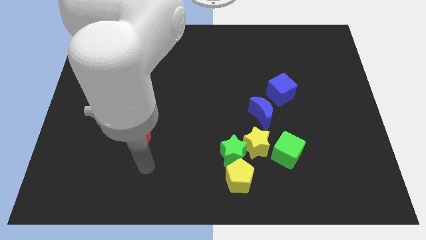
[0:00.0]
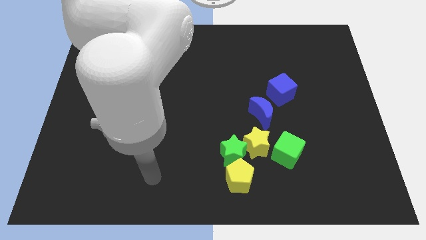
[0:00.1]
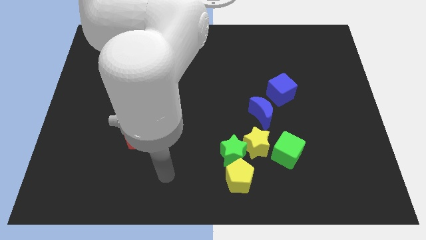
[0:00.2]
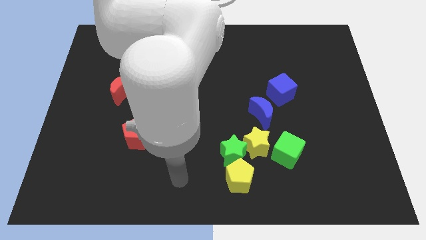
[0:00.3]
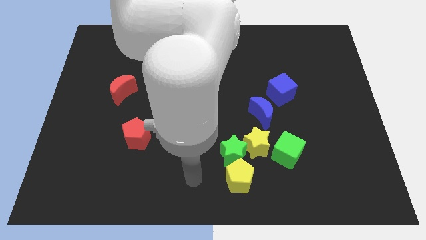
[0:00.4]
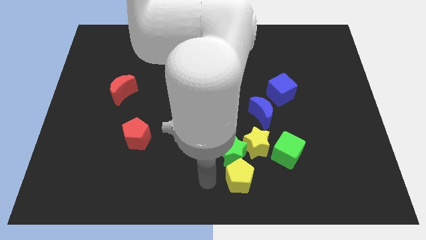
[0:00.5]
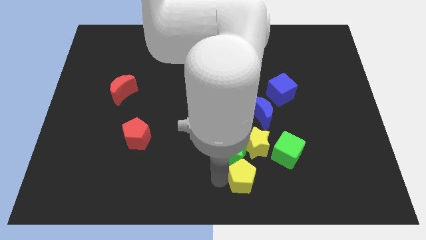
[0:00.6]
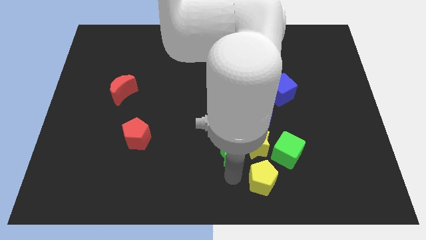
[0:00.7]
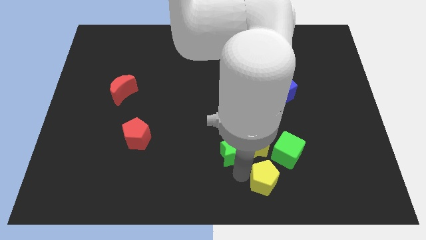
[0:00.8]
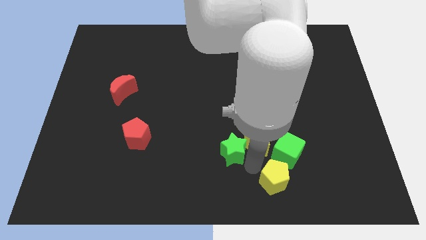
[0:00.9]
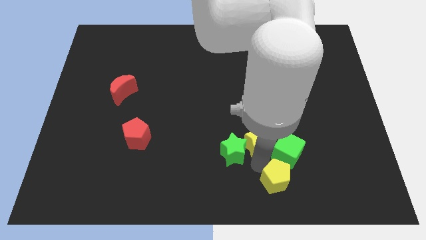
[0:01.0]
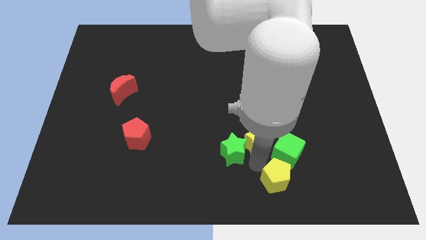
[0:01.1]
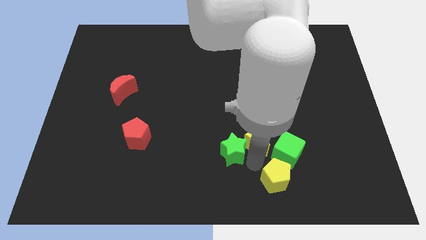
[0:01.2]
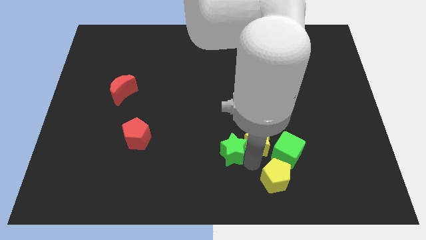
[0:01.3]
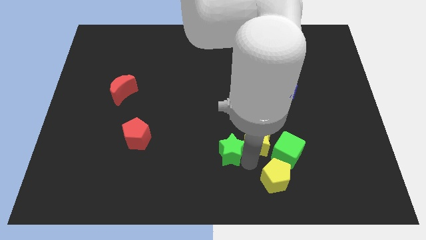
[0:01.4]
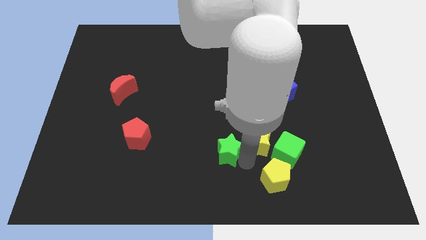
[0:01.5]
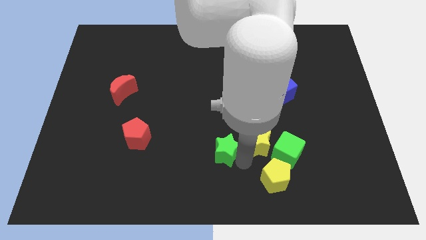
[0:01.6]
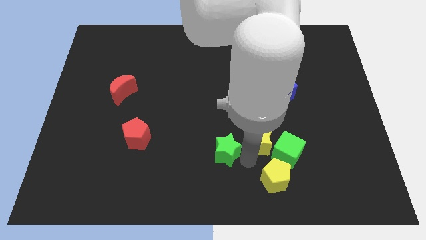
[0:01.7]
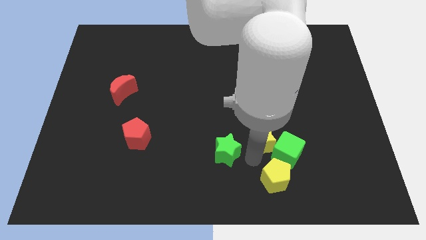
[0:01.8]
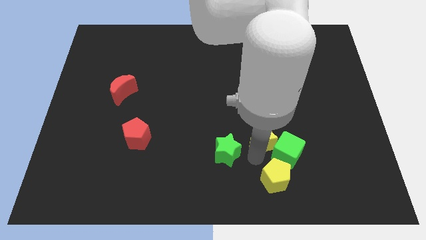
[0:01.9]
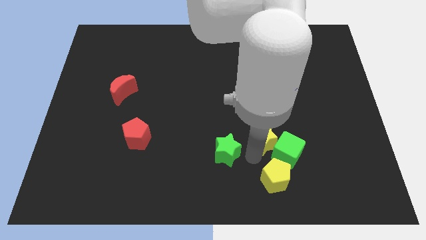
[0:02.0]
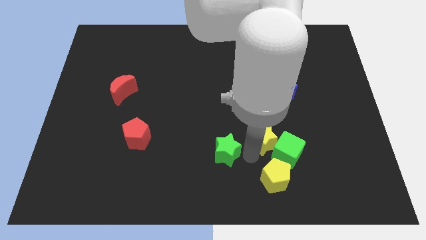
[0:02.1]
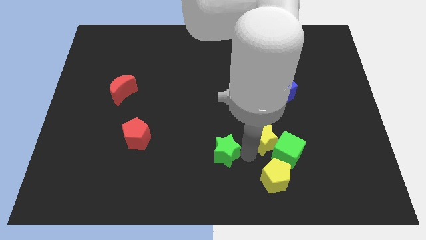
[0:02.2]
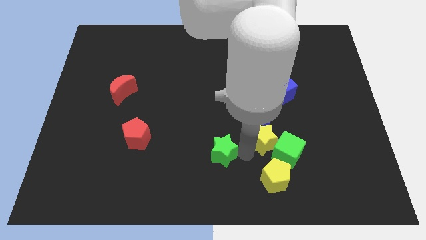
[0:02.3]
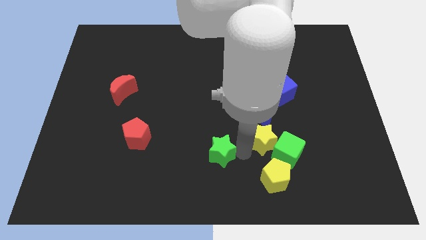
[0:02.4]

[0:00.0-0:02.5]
pull the green star apart from the yellow star and yellow pentagon

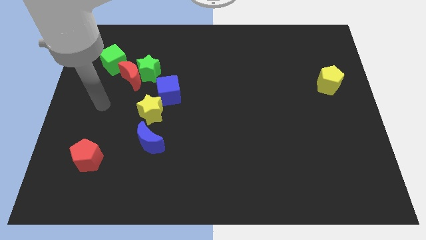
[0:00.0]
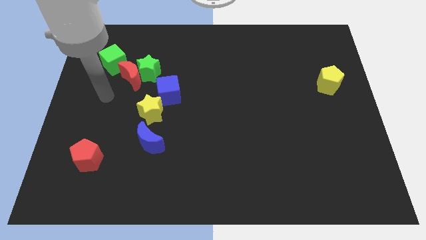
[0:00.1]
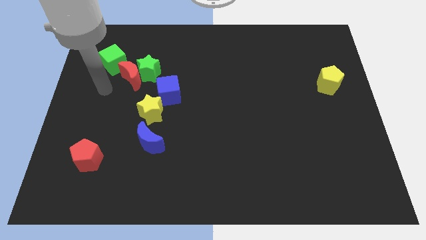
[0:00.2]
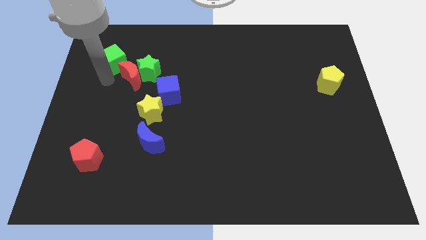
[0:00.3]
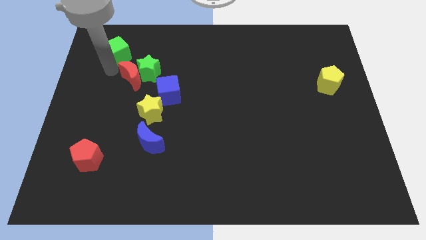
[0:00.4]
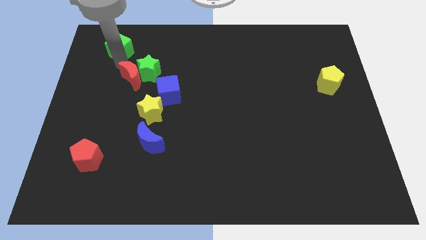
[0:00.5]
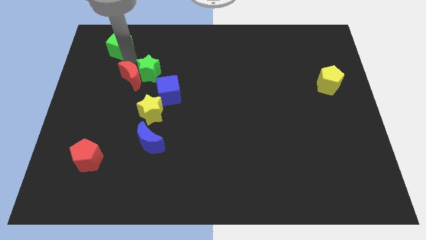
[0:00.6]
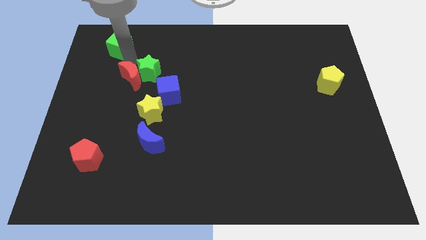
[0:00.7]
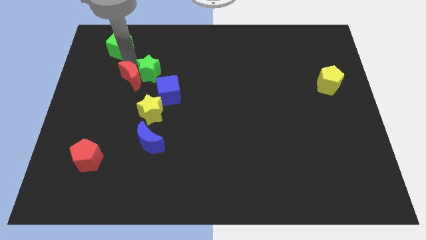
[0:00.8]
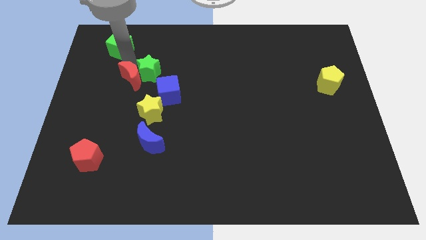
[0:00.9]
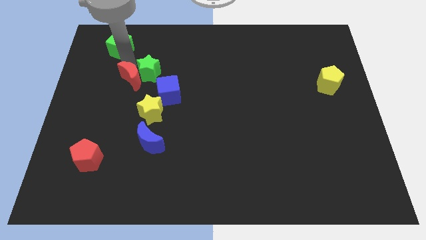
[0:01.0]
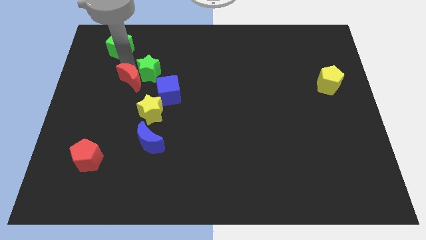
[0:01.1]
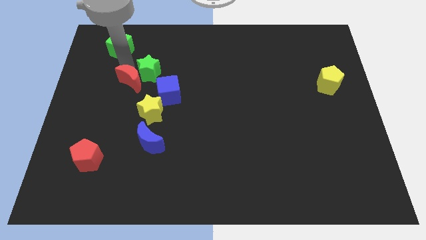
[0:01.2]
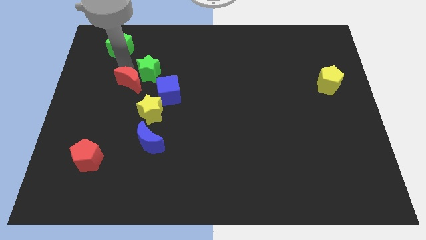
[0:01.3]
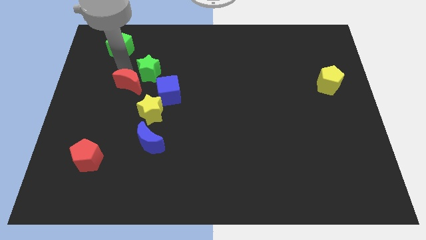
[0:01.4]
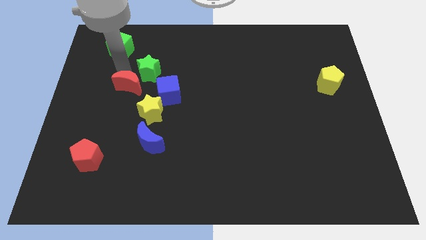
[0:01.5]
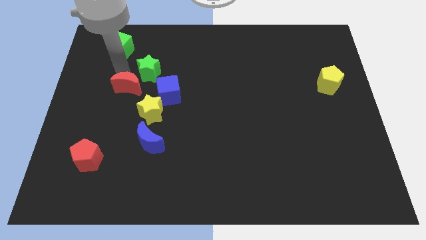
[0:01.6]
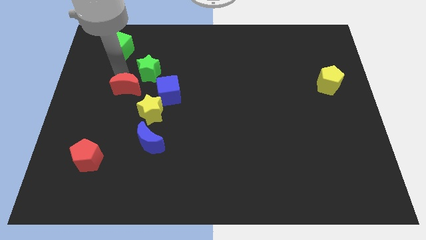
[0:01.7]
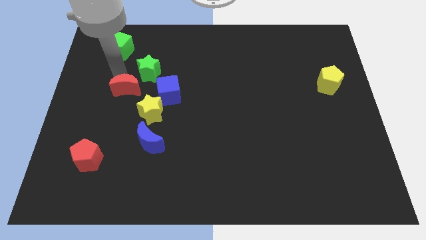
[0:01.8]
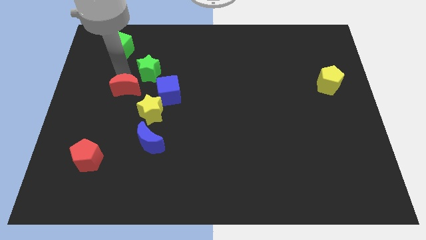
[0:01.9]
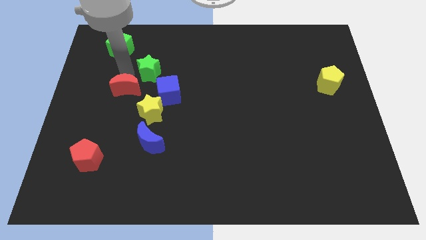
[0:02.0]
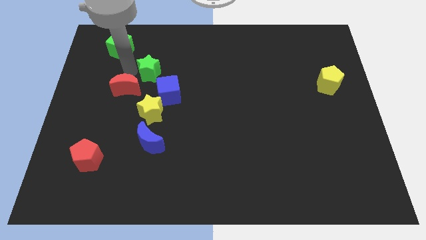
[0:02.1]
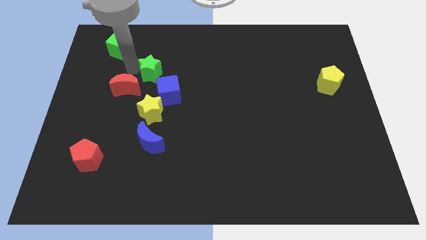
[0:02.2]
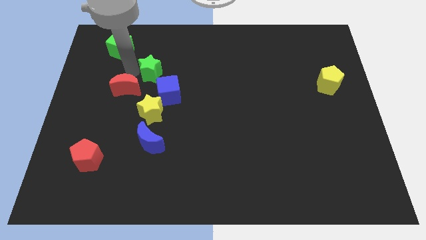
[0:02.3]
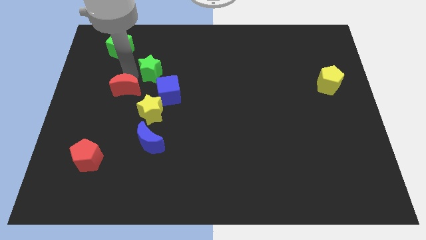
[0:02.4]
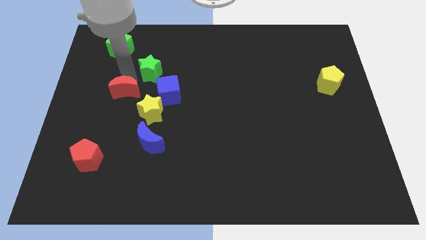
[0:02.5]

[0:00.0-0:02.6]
pull the red moon apart from the green star and green cube

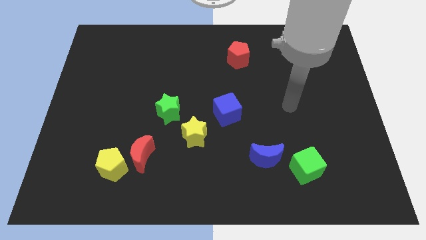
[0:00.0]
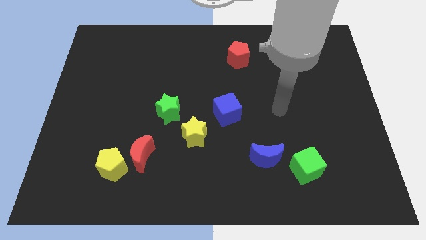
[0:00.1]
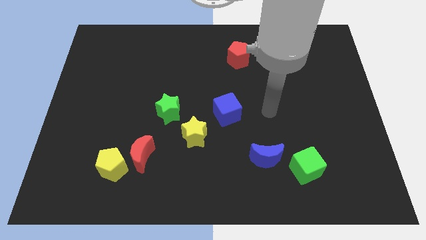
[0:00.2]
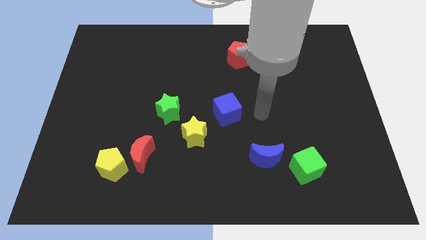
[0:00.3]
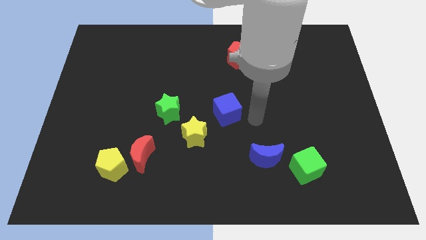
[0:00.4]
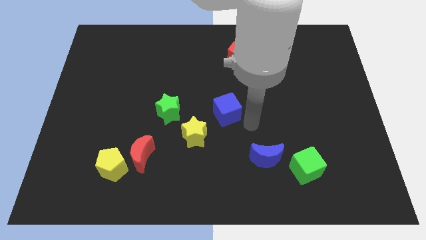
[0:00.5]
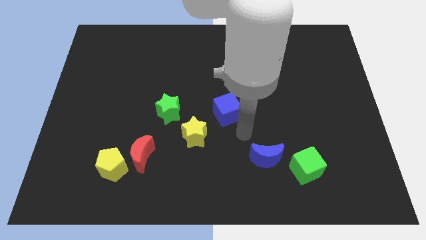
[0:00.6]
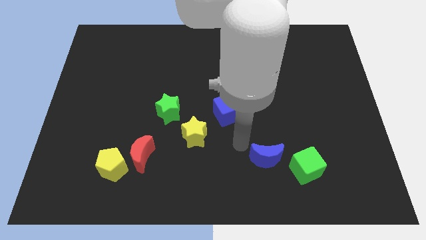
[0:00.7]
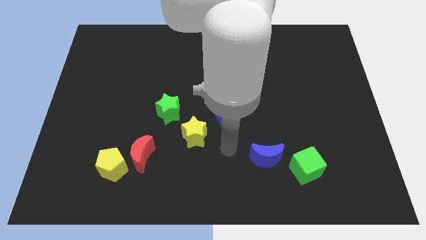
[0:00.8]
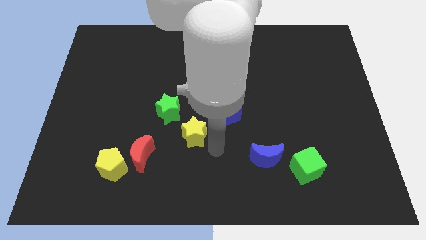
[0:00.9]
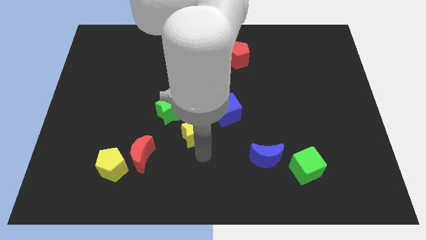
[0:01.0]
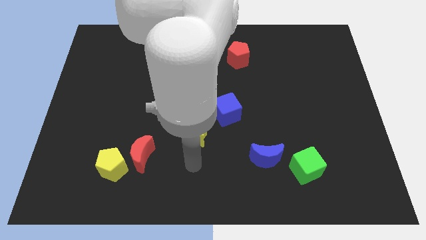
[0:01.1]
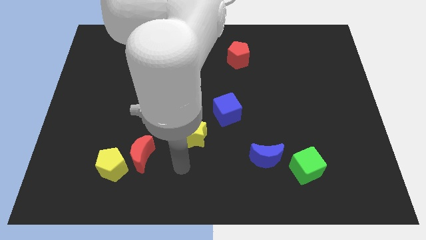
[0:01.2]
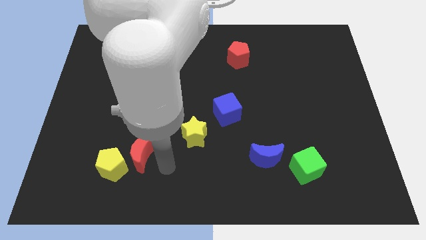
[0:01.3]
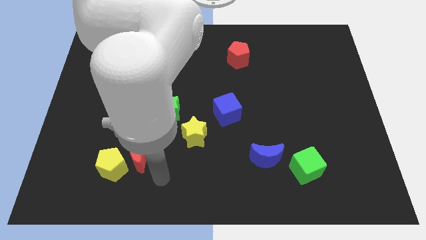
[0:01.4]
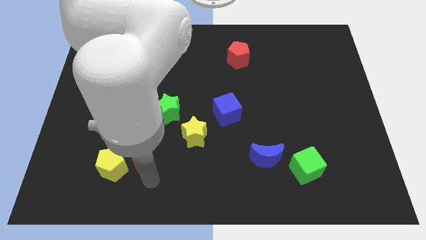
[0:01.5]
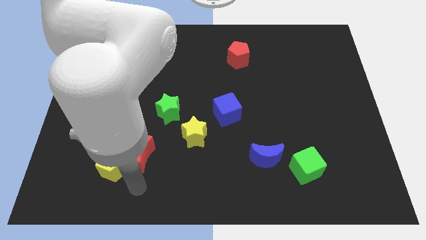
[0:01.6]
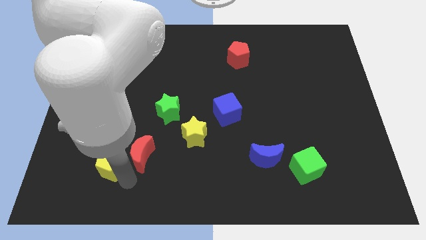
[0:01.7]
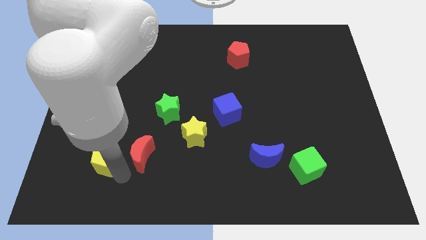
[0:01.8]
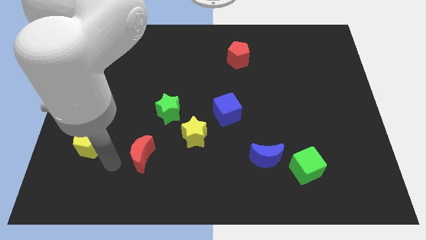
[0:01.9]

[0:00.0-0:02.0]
pull the red moon apart from the yellow pentagon

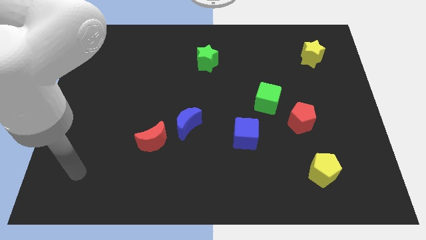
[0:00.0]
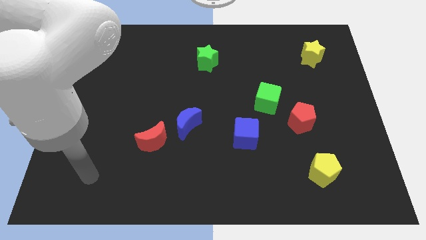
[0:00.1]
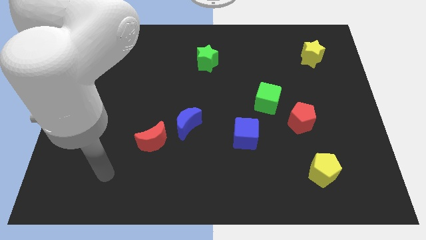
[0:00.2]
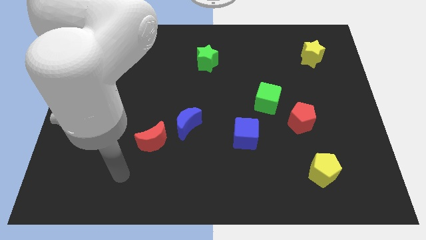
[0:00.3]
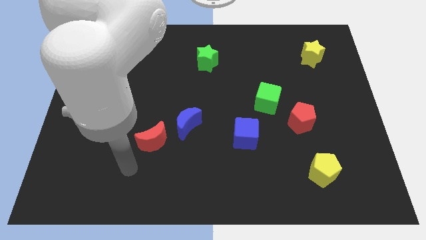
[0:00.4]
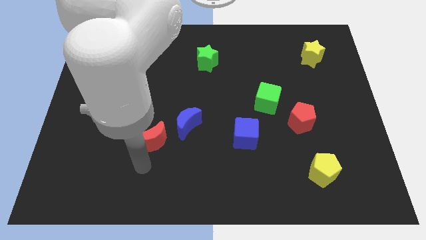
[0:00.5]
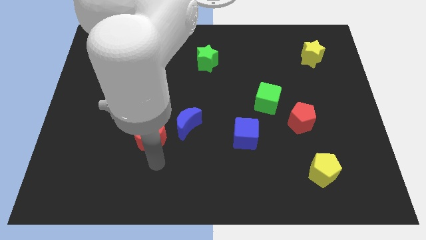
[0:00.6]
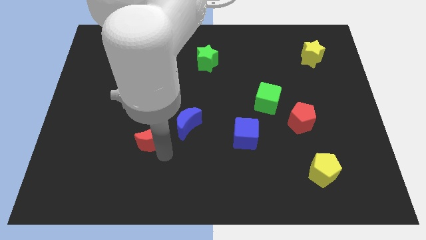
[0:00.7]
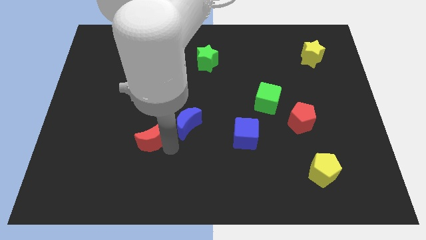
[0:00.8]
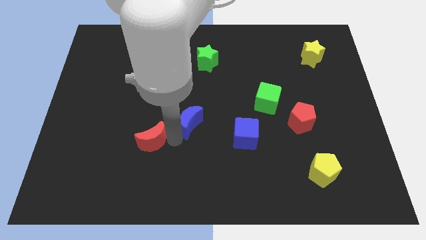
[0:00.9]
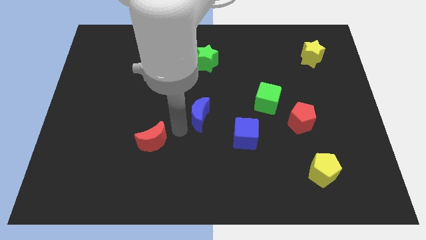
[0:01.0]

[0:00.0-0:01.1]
separate the red moon from the blue moon

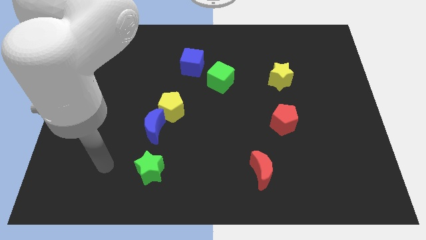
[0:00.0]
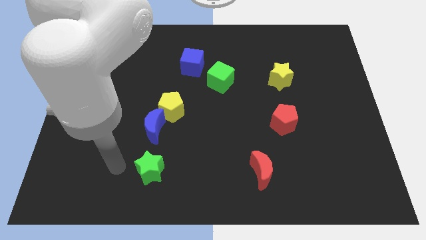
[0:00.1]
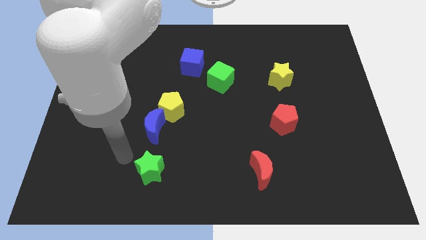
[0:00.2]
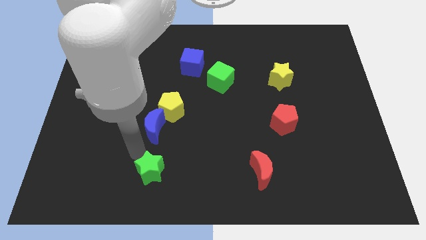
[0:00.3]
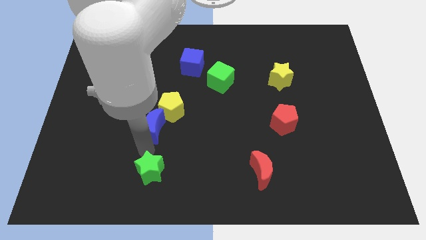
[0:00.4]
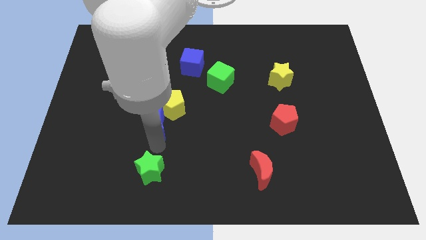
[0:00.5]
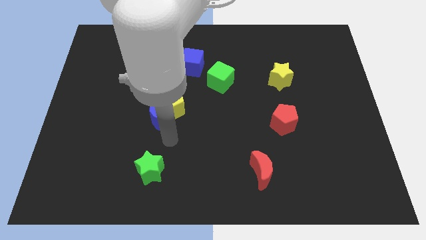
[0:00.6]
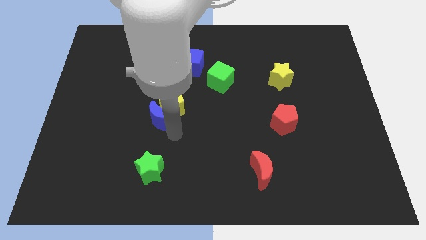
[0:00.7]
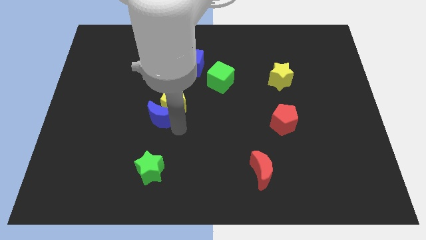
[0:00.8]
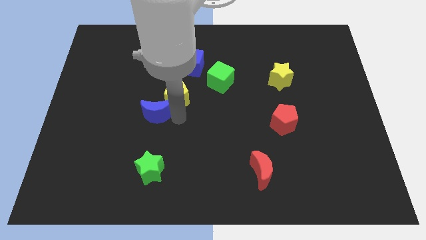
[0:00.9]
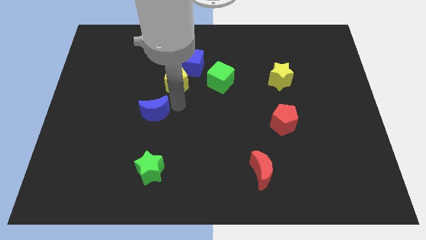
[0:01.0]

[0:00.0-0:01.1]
move the blue moon away from the yellow pentagon
